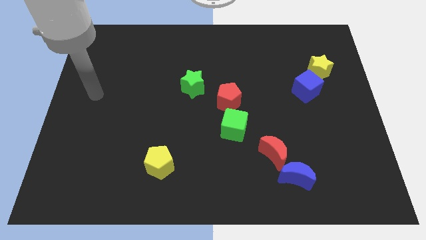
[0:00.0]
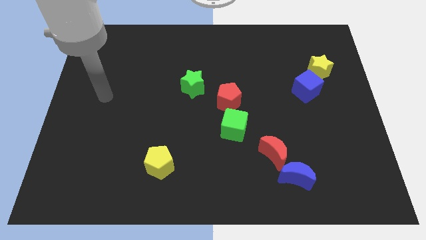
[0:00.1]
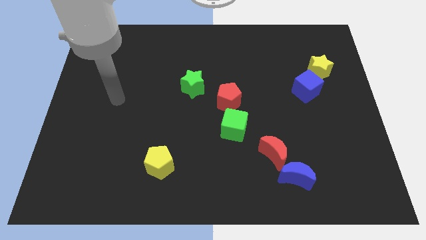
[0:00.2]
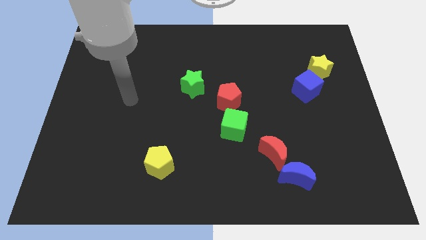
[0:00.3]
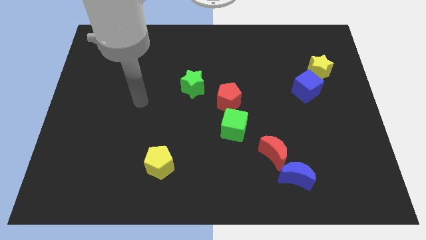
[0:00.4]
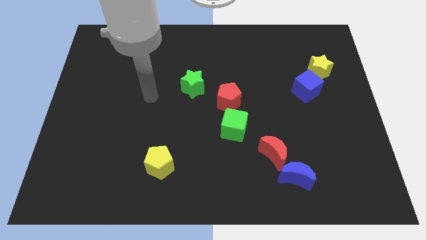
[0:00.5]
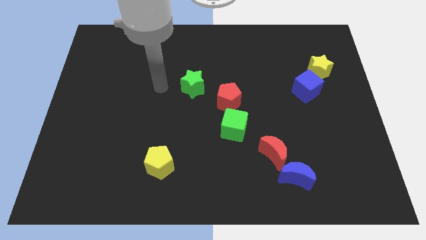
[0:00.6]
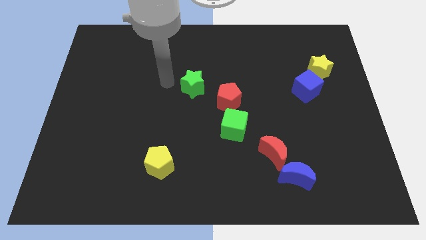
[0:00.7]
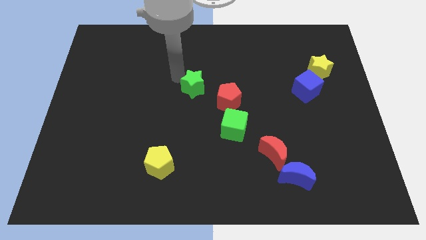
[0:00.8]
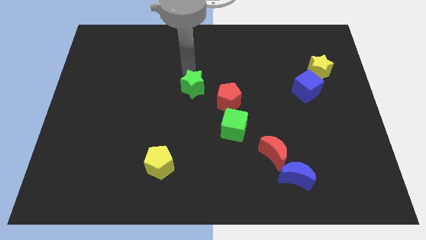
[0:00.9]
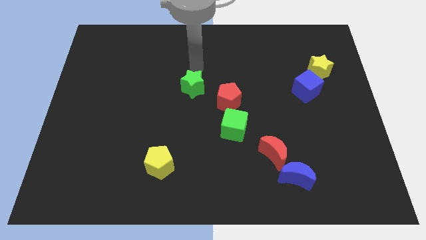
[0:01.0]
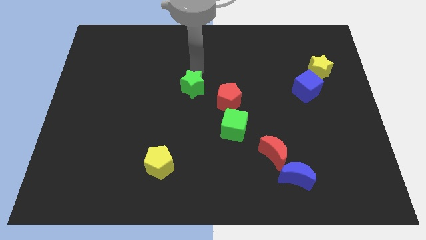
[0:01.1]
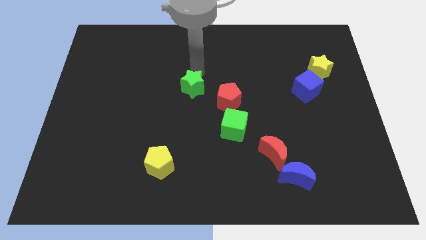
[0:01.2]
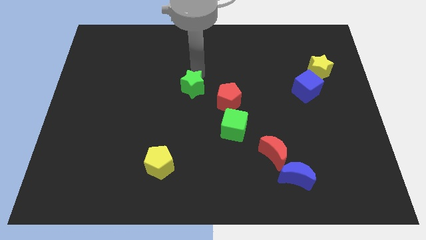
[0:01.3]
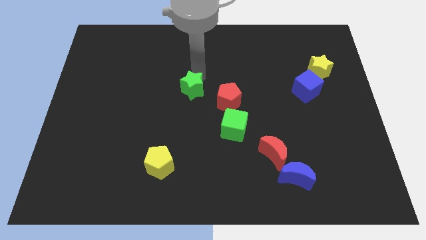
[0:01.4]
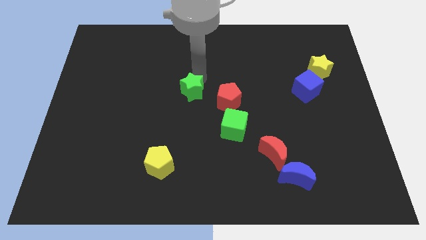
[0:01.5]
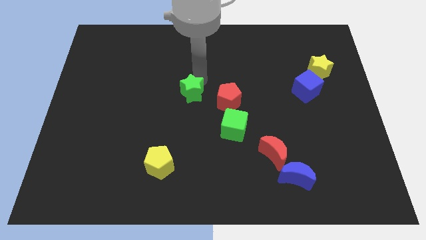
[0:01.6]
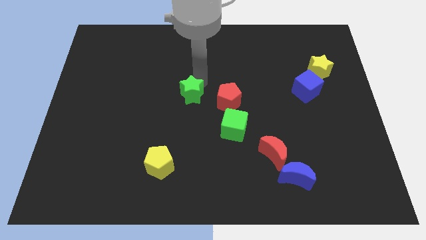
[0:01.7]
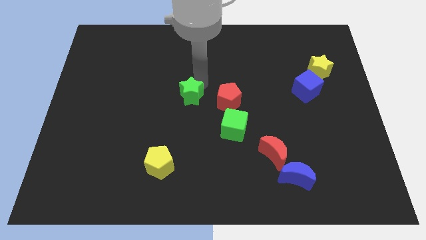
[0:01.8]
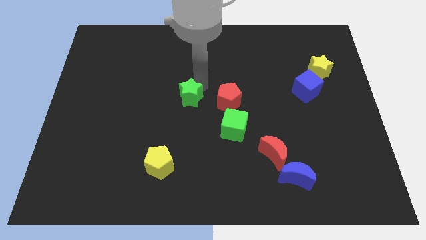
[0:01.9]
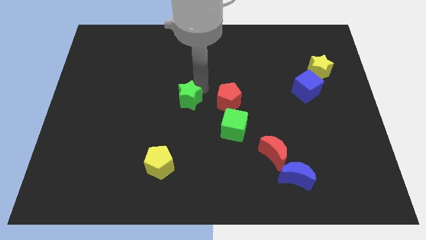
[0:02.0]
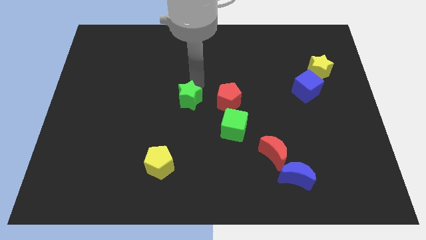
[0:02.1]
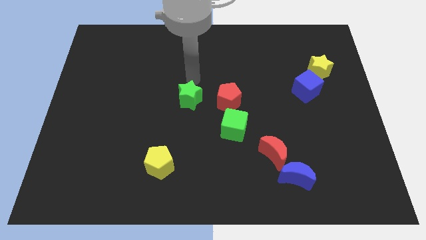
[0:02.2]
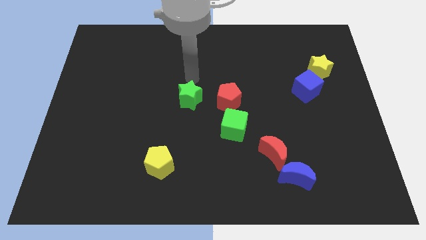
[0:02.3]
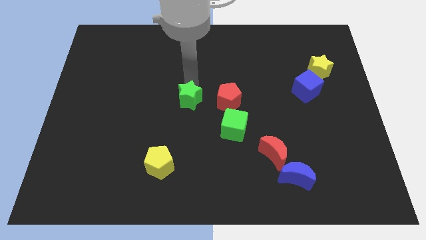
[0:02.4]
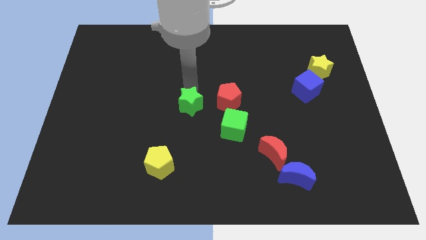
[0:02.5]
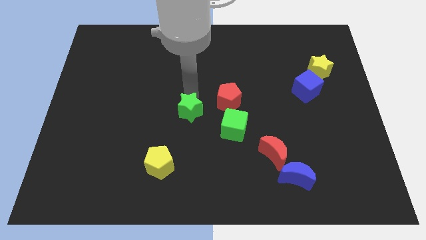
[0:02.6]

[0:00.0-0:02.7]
slightly push the green star down

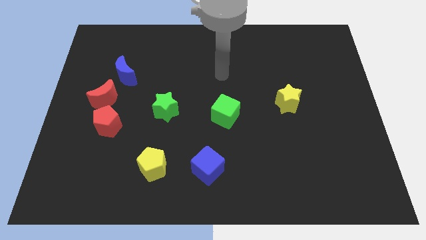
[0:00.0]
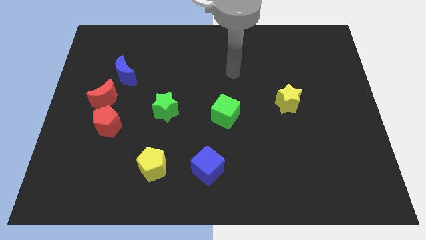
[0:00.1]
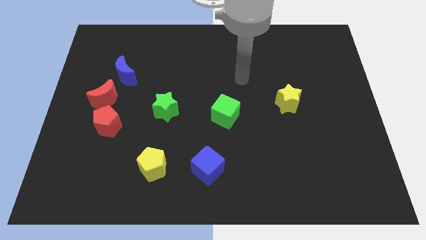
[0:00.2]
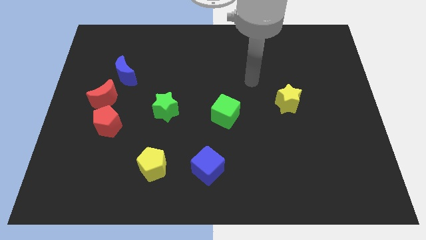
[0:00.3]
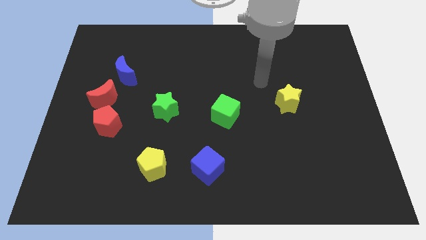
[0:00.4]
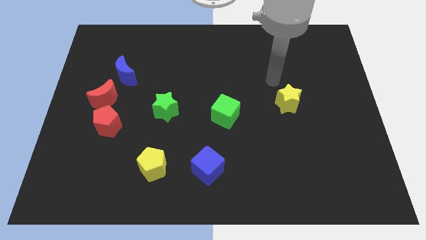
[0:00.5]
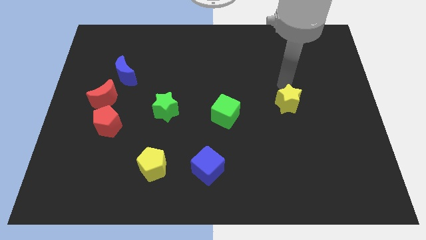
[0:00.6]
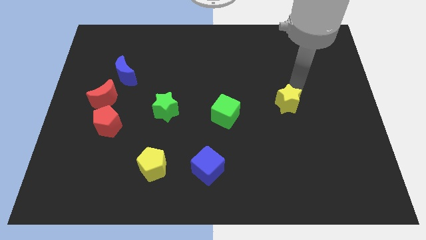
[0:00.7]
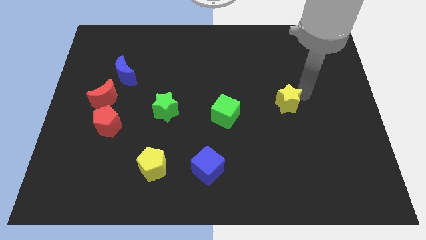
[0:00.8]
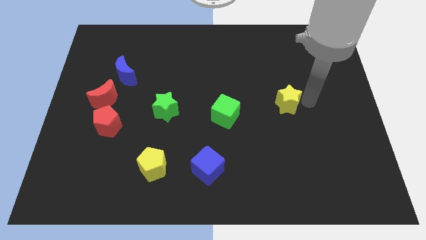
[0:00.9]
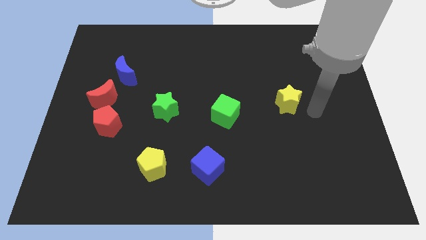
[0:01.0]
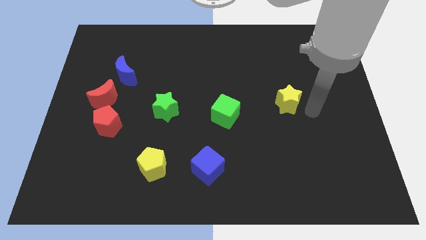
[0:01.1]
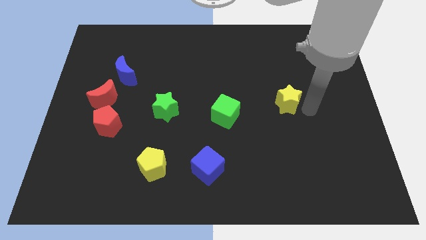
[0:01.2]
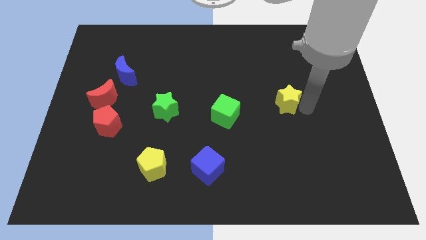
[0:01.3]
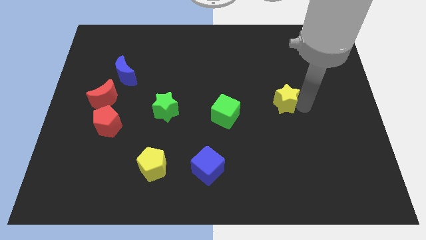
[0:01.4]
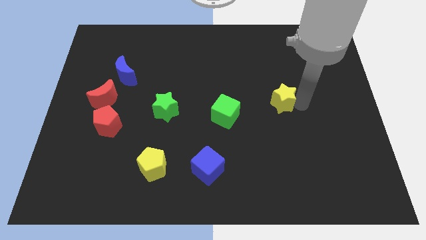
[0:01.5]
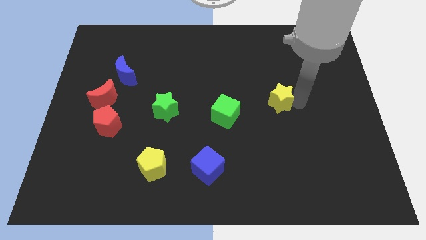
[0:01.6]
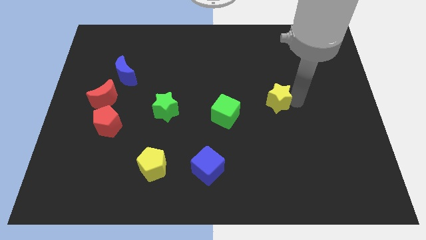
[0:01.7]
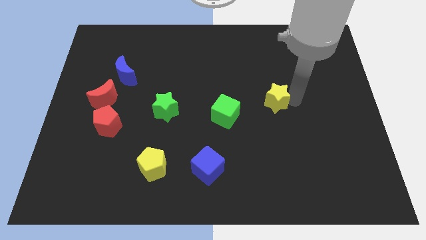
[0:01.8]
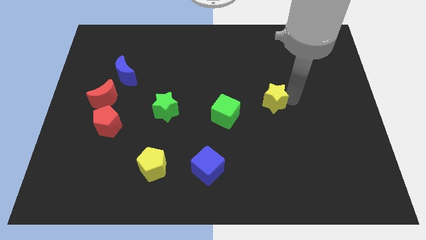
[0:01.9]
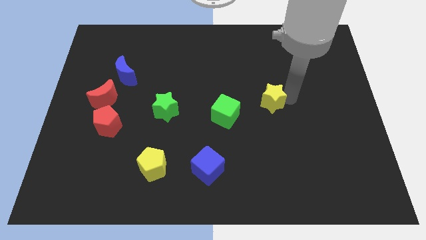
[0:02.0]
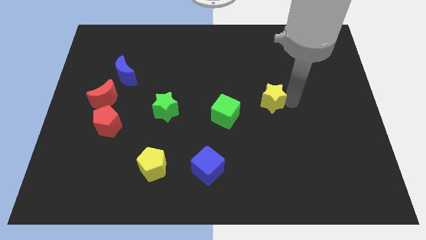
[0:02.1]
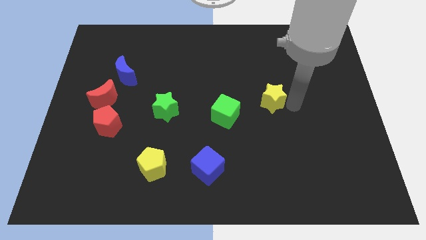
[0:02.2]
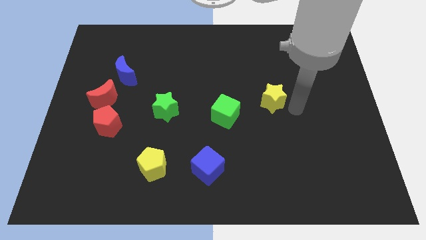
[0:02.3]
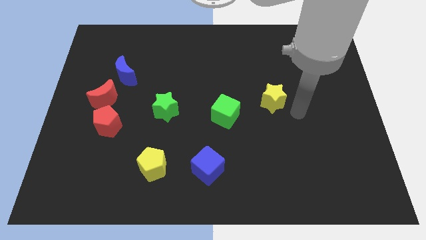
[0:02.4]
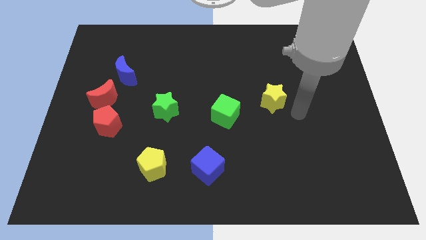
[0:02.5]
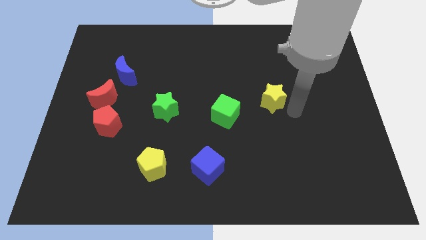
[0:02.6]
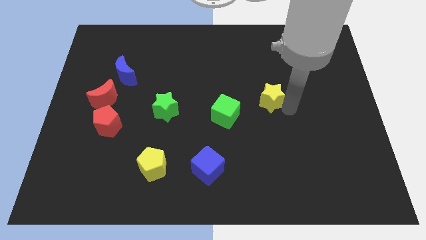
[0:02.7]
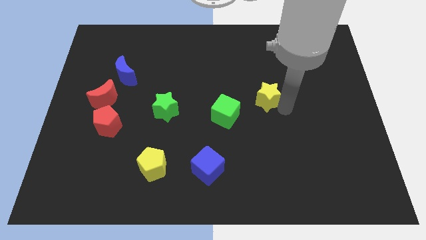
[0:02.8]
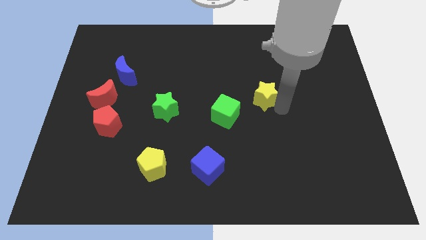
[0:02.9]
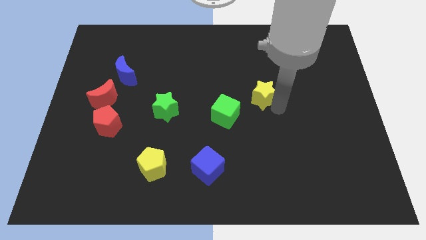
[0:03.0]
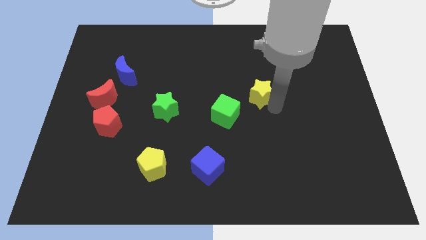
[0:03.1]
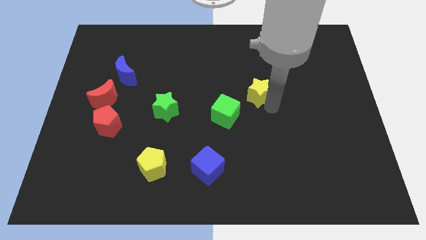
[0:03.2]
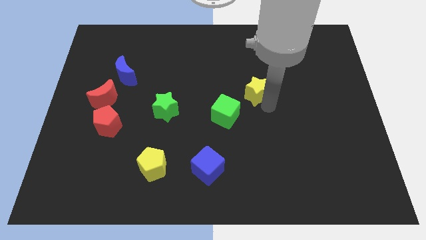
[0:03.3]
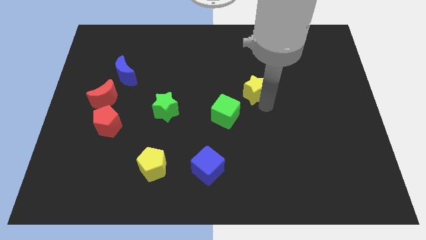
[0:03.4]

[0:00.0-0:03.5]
slightly slide the yellow star upwards and to the left

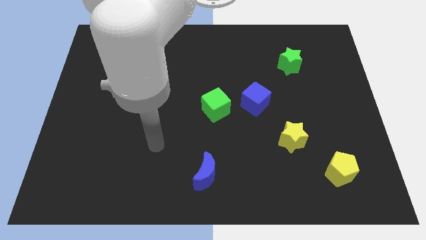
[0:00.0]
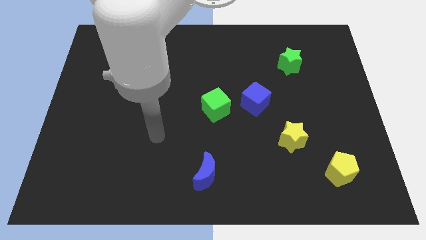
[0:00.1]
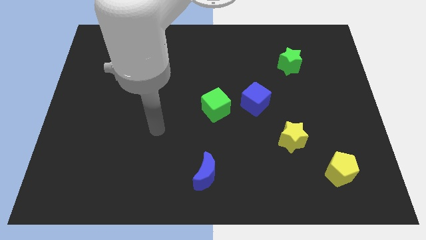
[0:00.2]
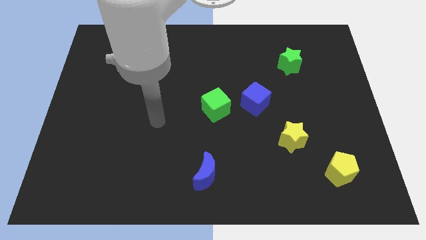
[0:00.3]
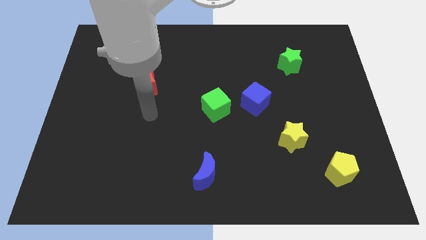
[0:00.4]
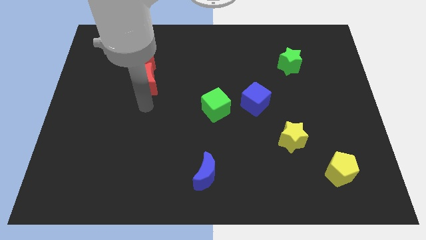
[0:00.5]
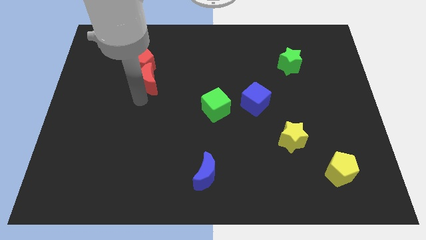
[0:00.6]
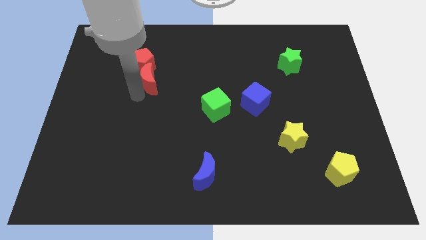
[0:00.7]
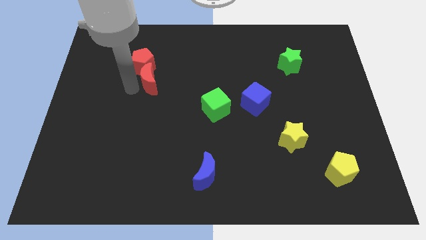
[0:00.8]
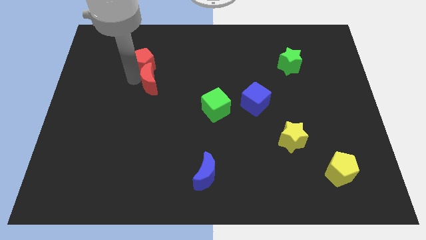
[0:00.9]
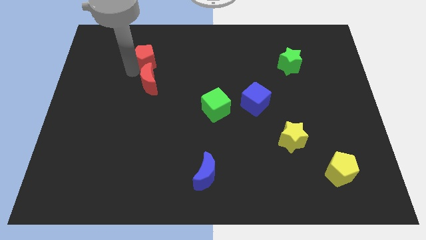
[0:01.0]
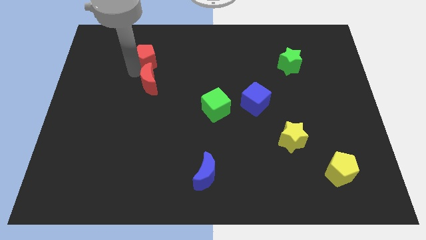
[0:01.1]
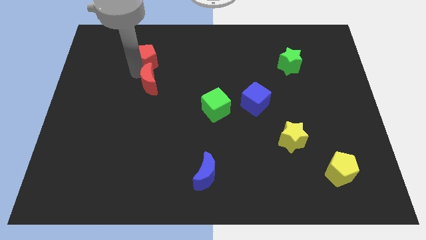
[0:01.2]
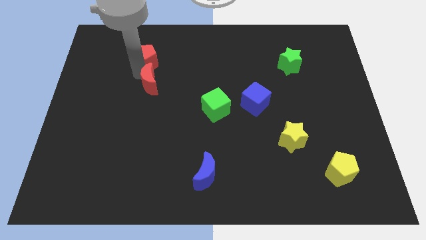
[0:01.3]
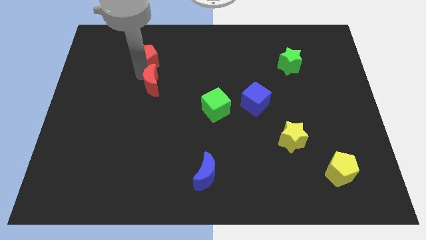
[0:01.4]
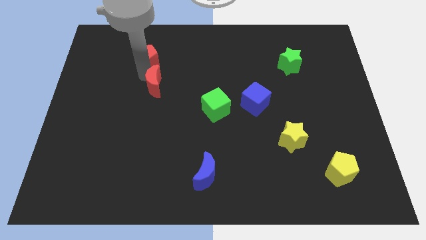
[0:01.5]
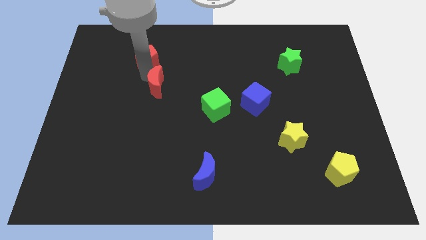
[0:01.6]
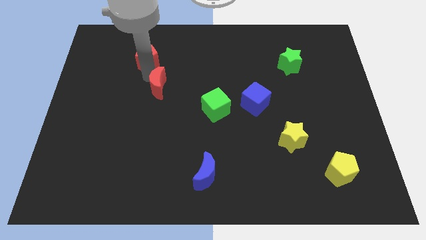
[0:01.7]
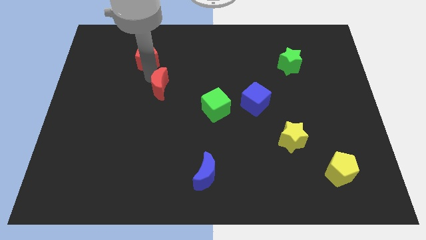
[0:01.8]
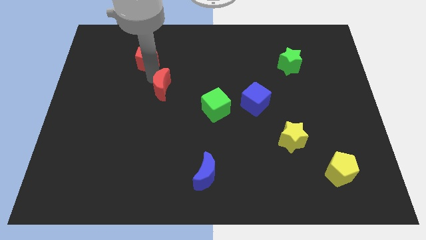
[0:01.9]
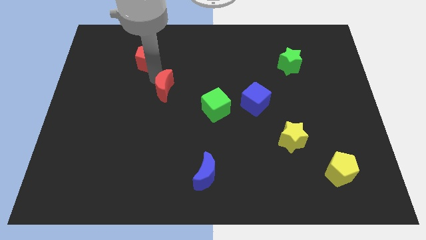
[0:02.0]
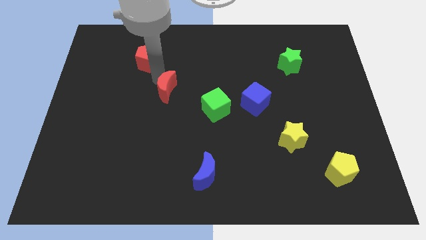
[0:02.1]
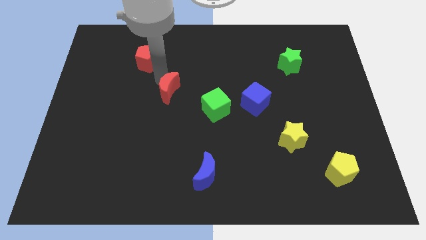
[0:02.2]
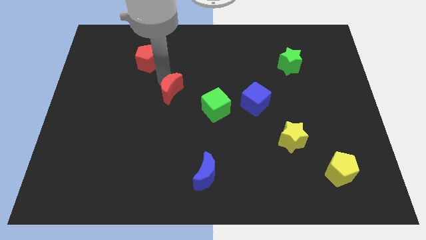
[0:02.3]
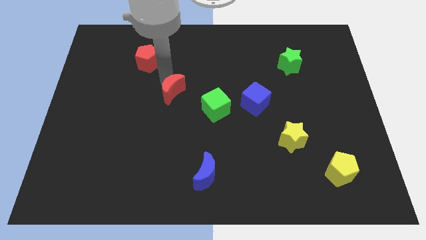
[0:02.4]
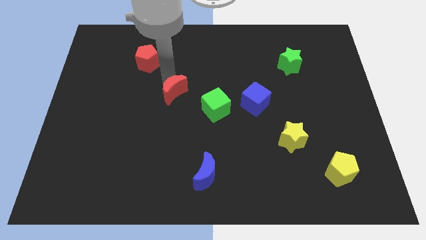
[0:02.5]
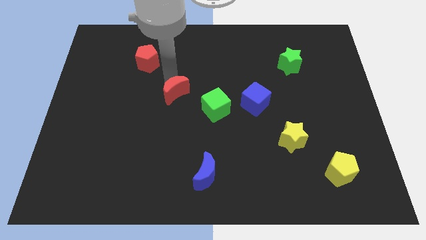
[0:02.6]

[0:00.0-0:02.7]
move the red moon downwards and to the right diagonally a little
